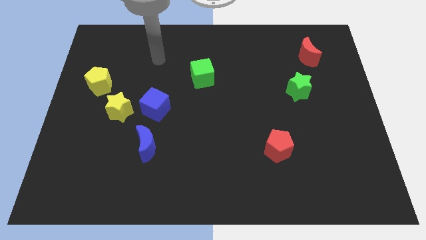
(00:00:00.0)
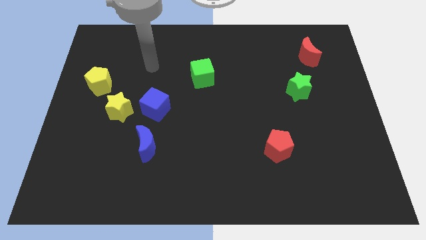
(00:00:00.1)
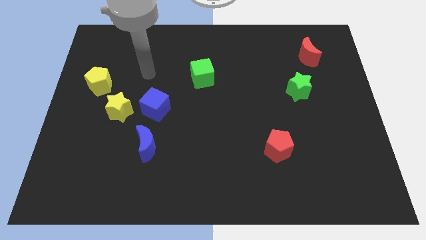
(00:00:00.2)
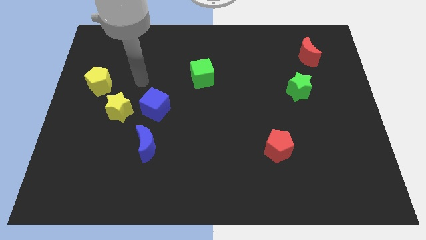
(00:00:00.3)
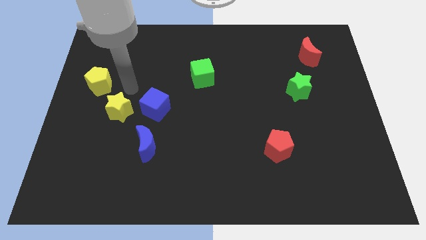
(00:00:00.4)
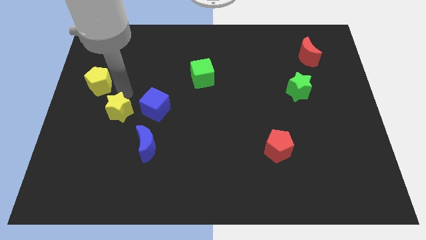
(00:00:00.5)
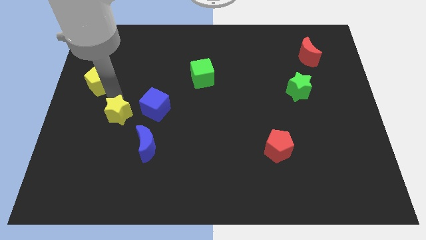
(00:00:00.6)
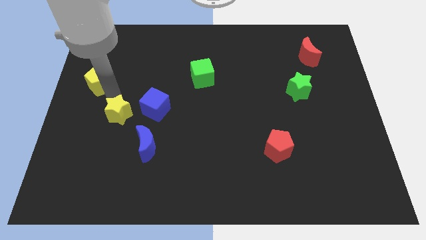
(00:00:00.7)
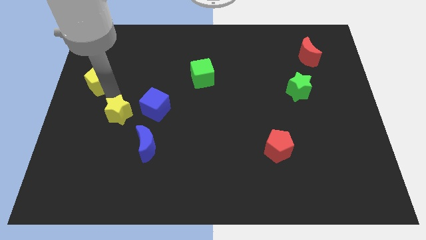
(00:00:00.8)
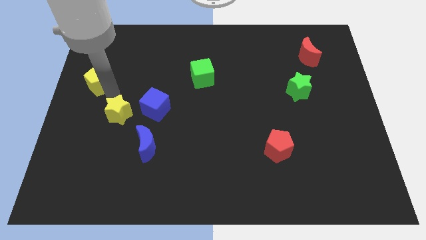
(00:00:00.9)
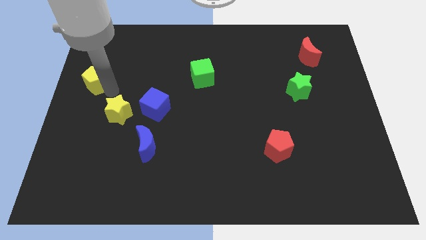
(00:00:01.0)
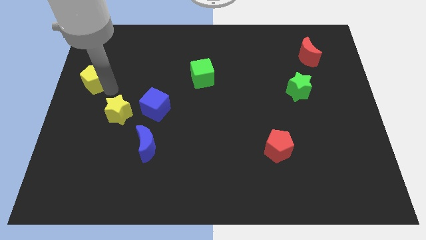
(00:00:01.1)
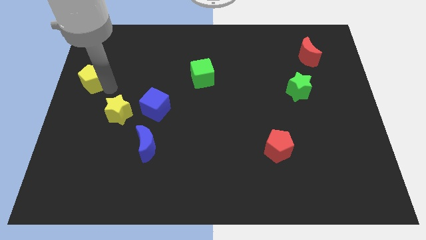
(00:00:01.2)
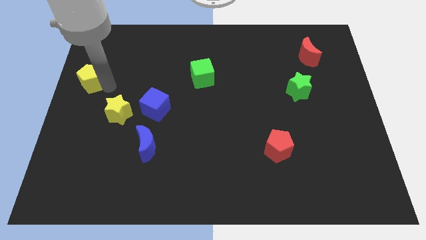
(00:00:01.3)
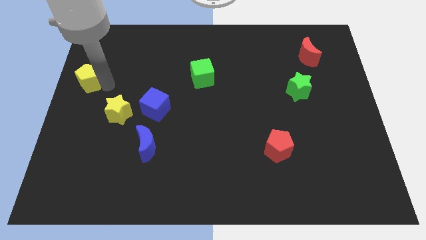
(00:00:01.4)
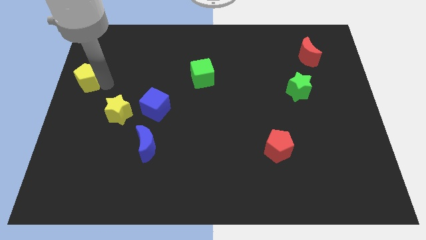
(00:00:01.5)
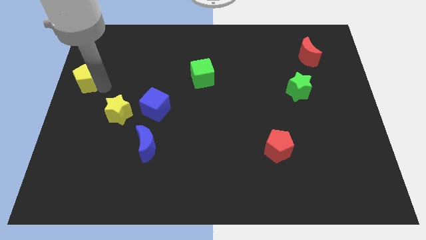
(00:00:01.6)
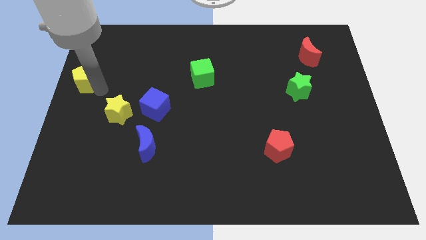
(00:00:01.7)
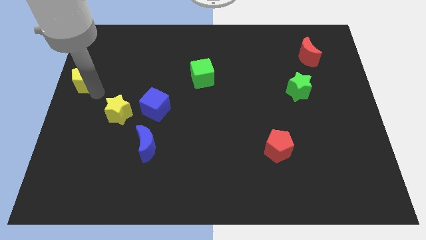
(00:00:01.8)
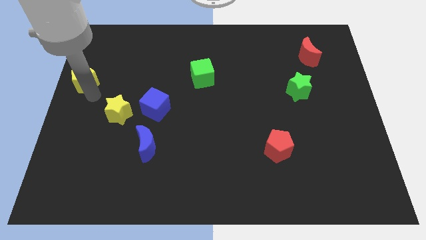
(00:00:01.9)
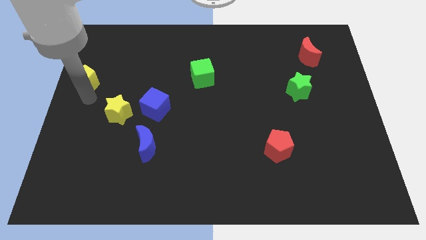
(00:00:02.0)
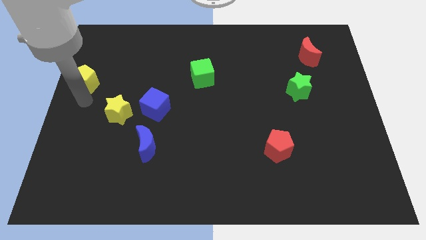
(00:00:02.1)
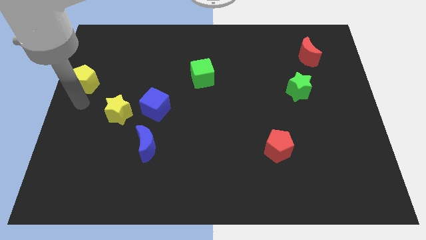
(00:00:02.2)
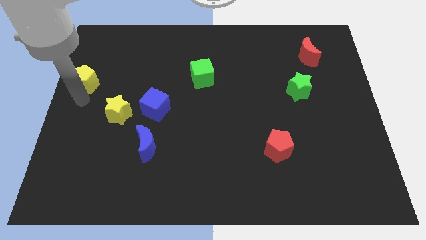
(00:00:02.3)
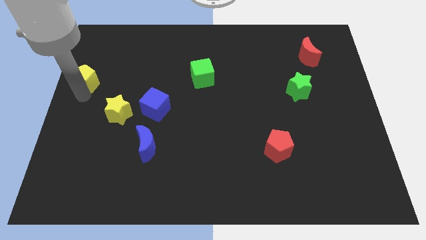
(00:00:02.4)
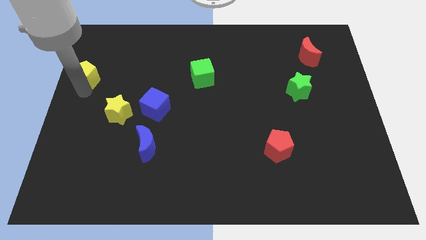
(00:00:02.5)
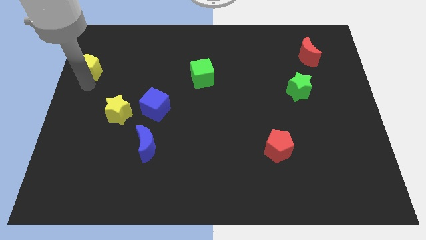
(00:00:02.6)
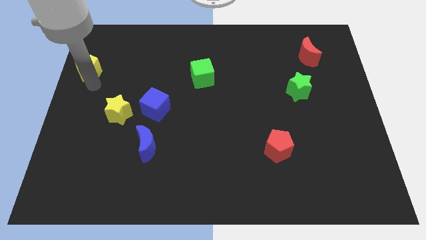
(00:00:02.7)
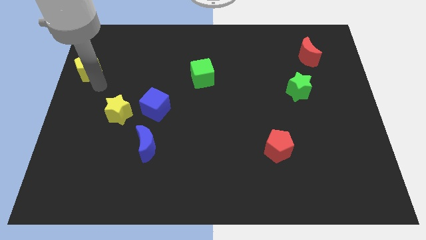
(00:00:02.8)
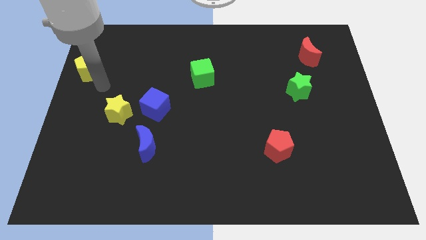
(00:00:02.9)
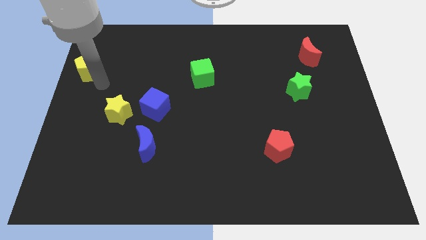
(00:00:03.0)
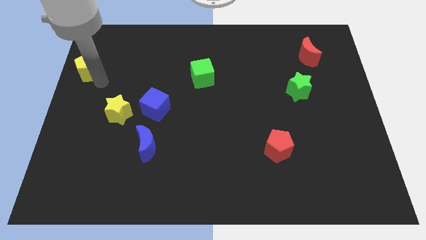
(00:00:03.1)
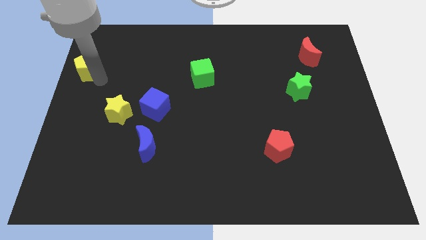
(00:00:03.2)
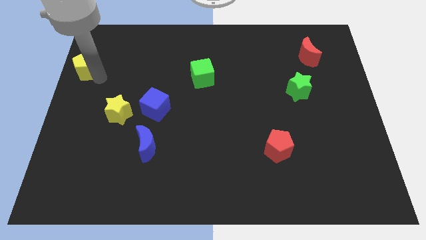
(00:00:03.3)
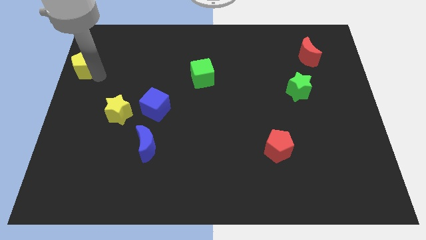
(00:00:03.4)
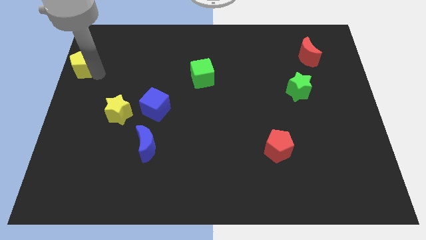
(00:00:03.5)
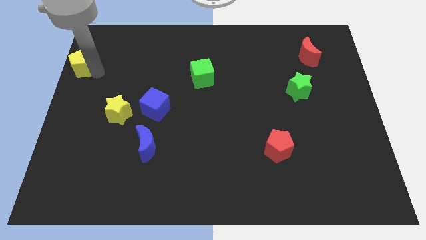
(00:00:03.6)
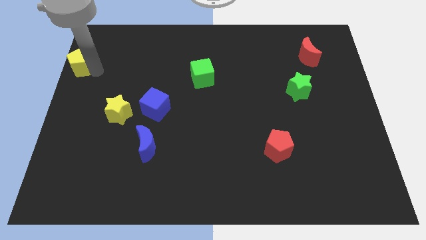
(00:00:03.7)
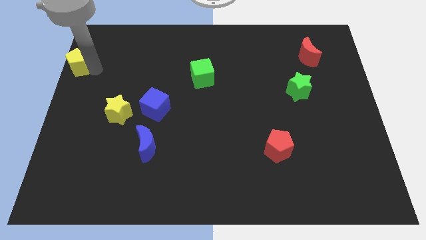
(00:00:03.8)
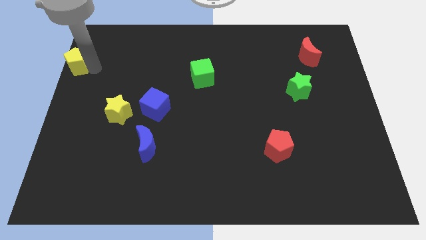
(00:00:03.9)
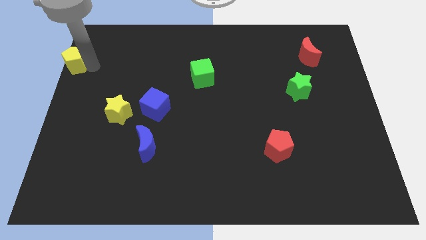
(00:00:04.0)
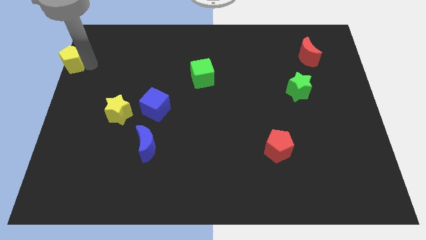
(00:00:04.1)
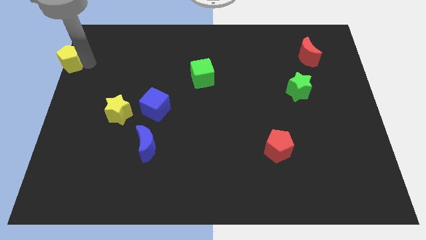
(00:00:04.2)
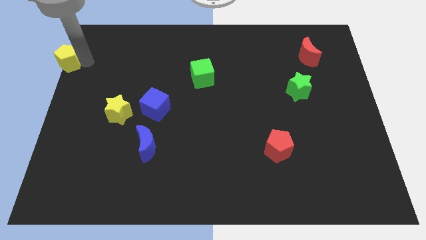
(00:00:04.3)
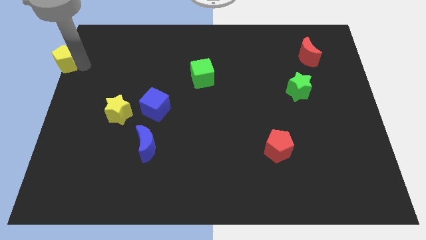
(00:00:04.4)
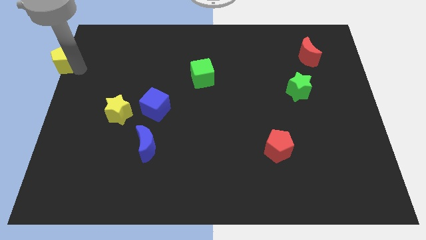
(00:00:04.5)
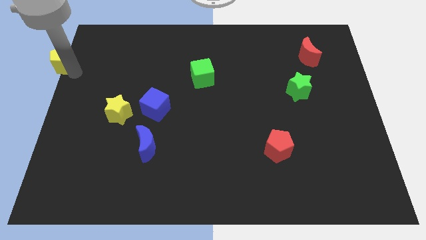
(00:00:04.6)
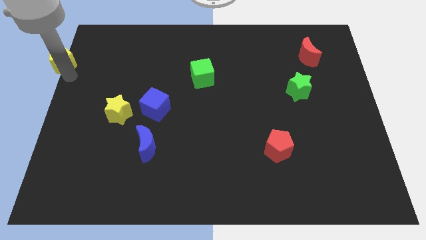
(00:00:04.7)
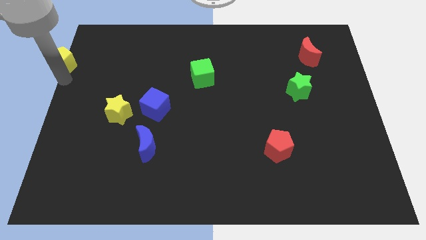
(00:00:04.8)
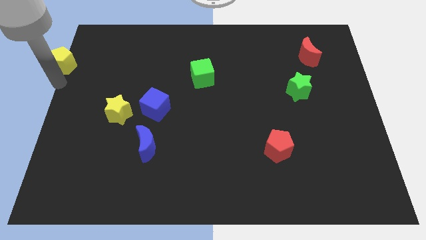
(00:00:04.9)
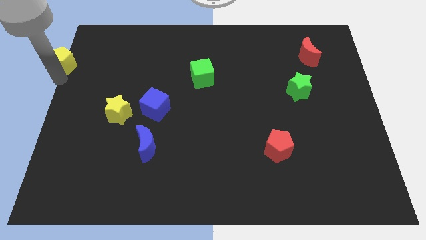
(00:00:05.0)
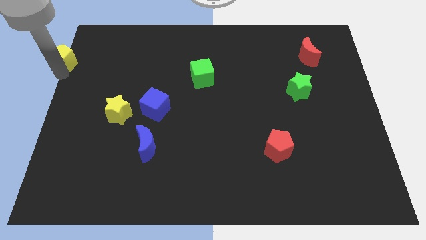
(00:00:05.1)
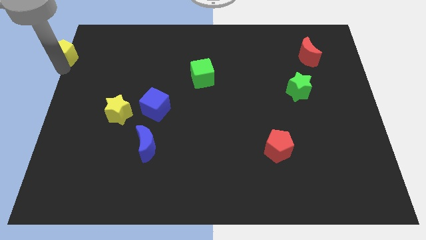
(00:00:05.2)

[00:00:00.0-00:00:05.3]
slide the yellow pentagon to the upper left corner

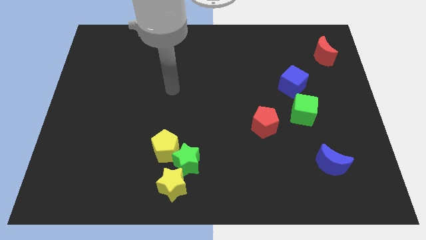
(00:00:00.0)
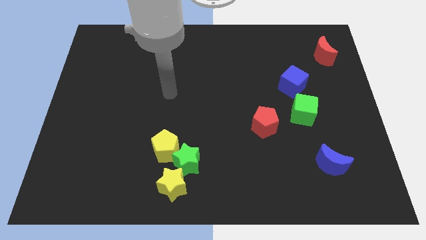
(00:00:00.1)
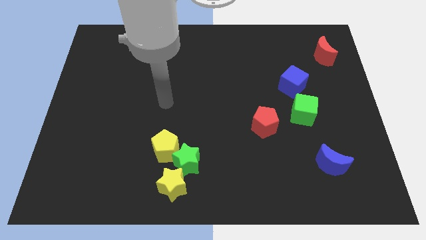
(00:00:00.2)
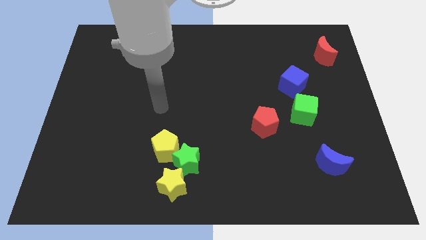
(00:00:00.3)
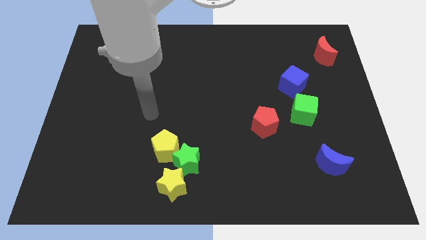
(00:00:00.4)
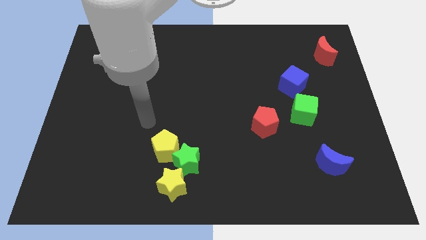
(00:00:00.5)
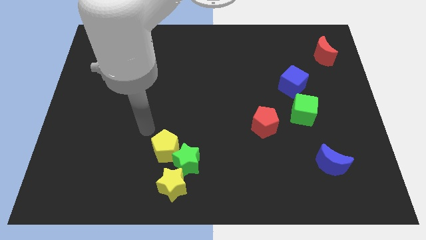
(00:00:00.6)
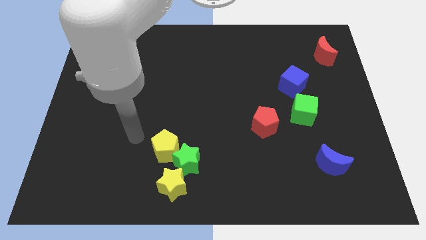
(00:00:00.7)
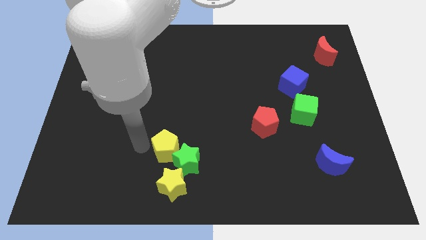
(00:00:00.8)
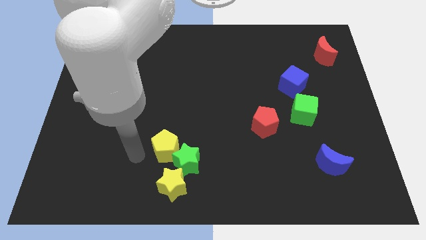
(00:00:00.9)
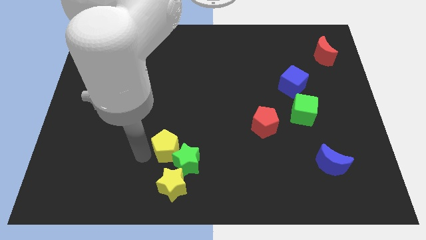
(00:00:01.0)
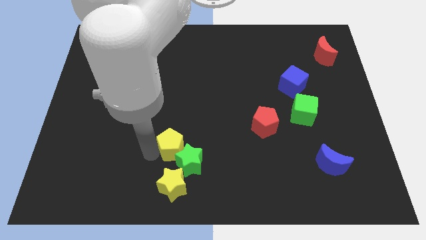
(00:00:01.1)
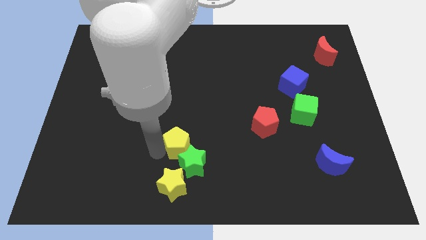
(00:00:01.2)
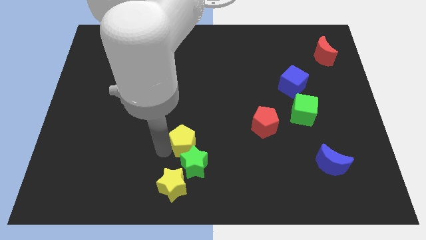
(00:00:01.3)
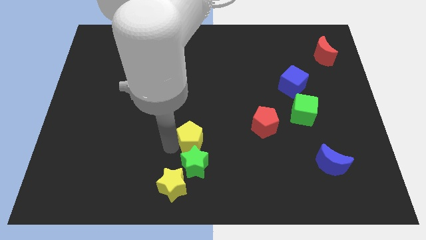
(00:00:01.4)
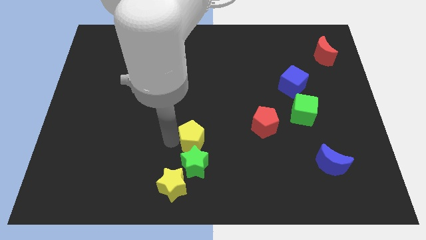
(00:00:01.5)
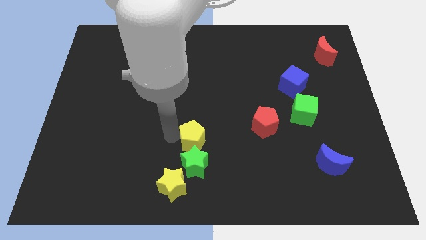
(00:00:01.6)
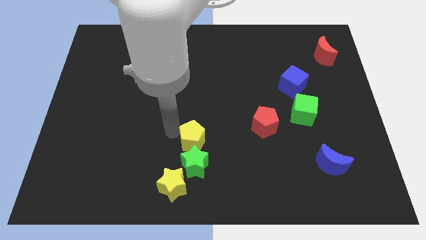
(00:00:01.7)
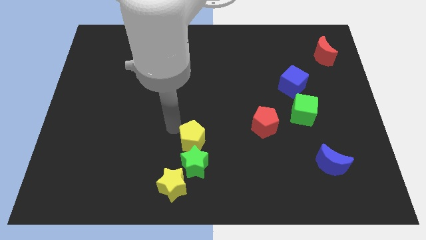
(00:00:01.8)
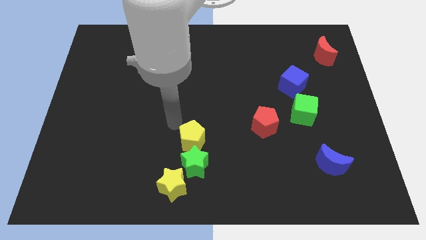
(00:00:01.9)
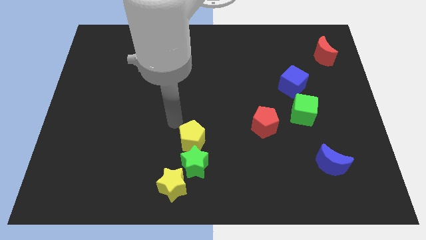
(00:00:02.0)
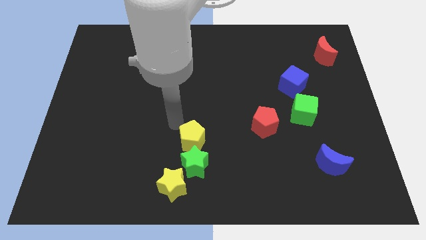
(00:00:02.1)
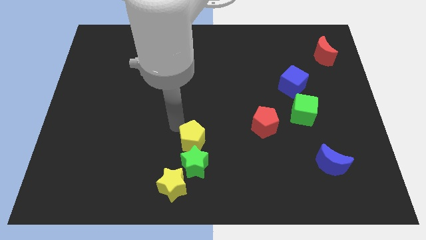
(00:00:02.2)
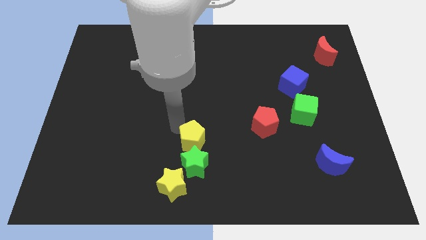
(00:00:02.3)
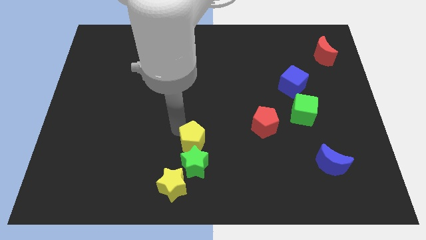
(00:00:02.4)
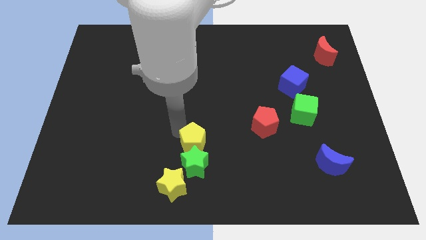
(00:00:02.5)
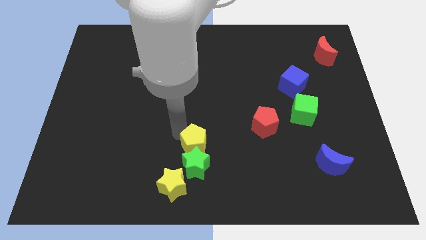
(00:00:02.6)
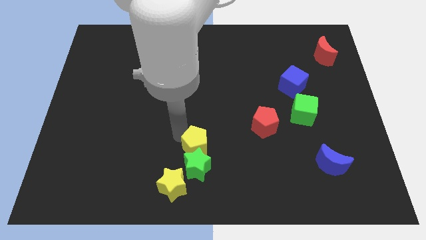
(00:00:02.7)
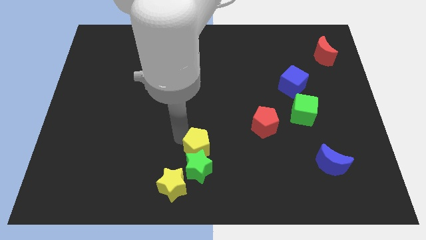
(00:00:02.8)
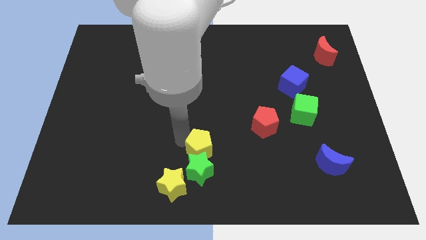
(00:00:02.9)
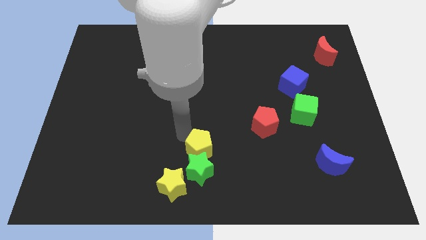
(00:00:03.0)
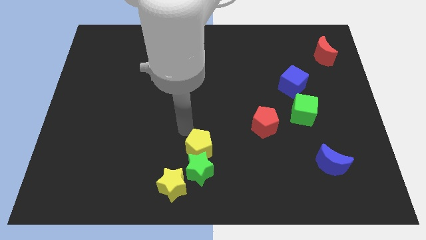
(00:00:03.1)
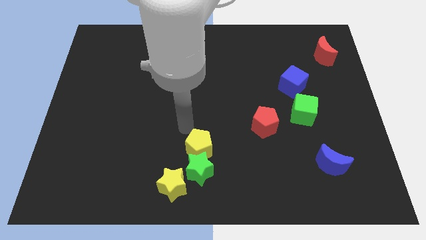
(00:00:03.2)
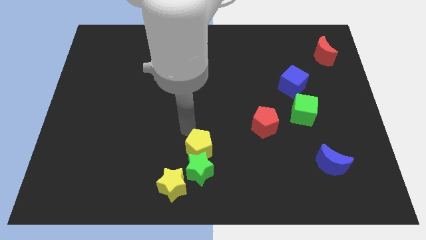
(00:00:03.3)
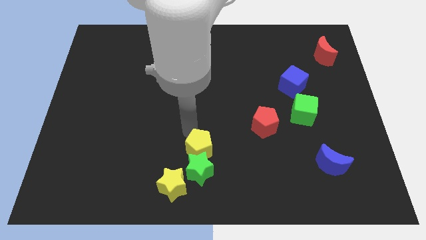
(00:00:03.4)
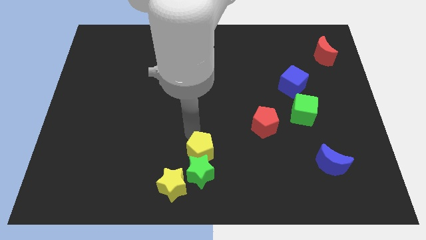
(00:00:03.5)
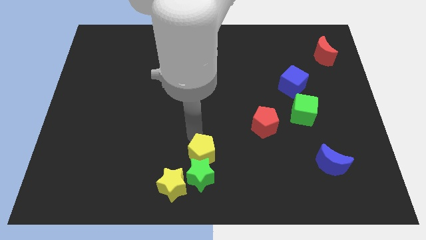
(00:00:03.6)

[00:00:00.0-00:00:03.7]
put the yellow pentagon to the bottom side
